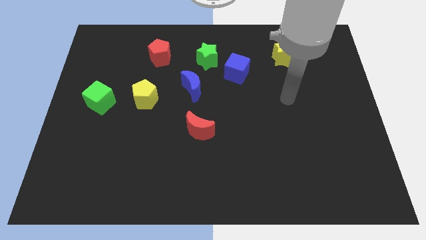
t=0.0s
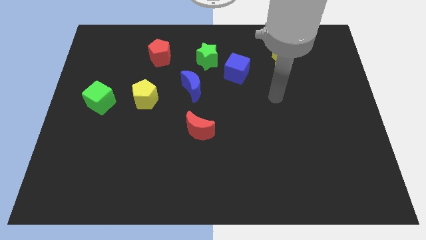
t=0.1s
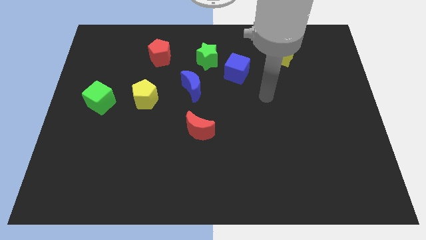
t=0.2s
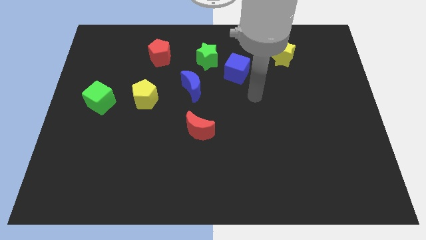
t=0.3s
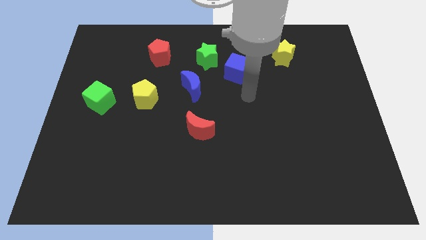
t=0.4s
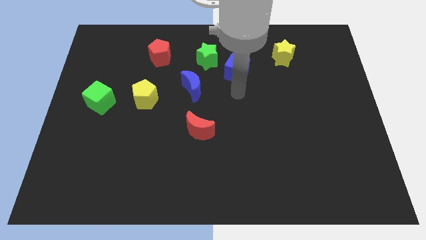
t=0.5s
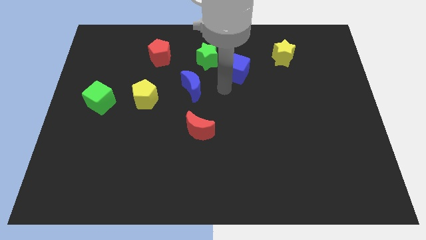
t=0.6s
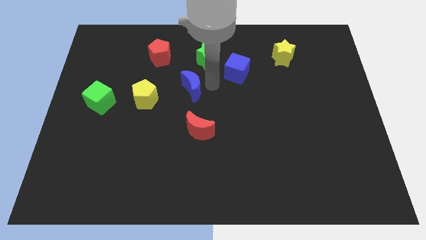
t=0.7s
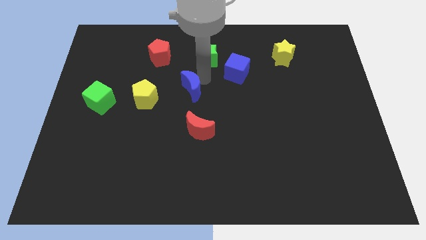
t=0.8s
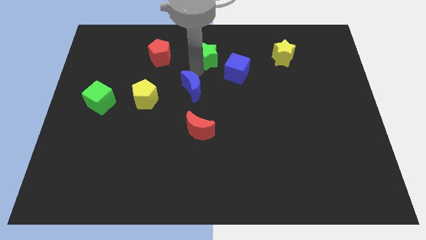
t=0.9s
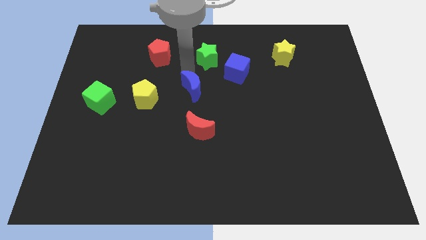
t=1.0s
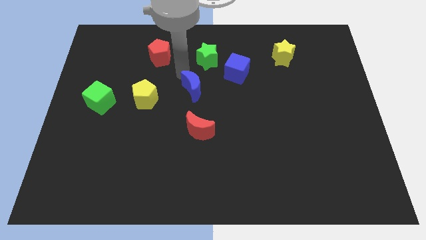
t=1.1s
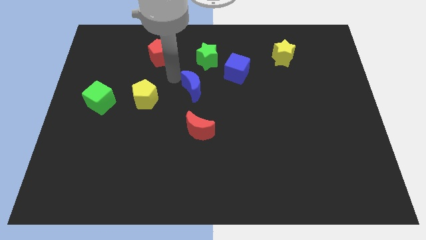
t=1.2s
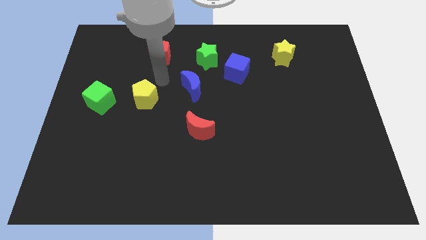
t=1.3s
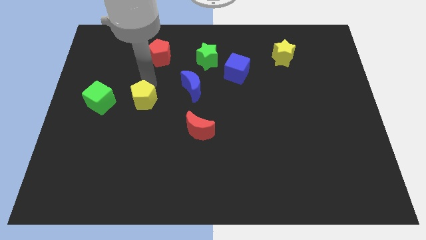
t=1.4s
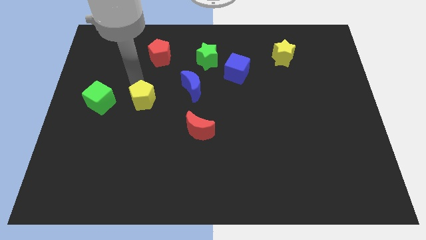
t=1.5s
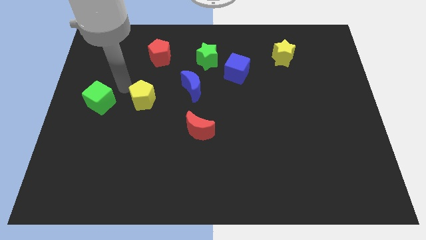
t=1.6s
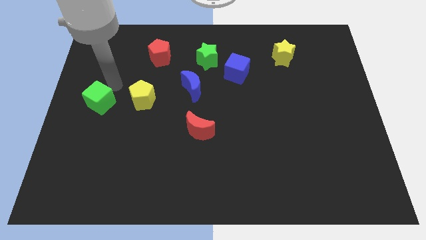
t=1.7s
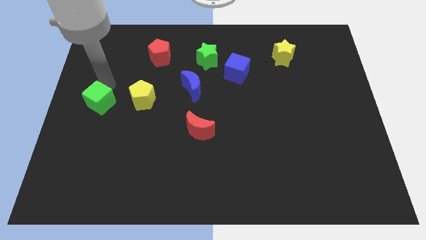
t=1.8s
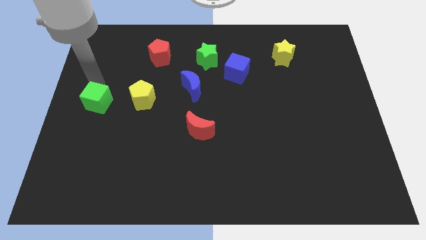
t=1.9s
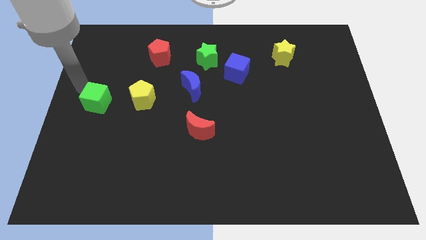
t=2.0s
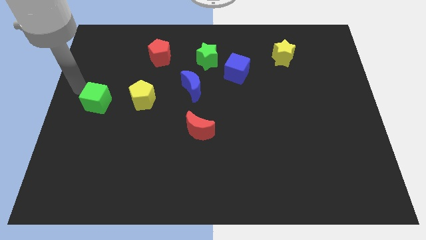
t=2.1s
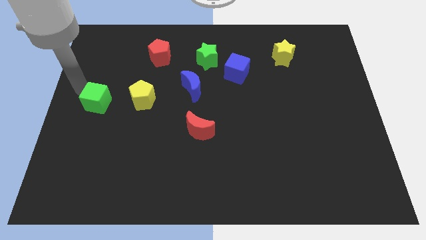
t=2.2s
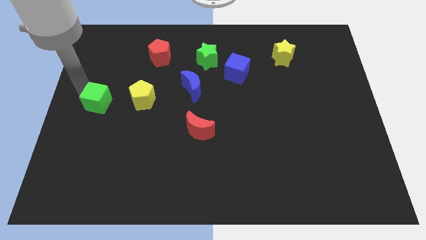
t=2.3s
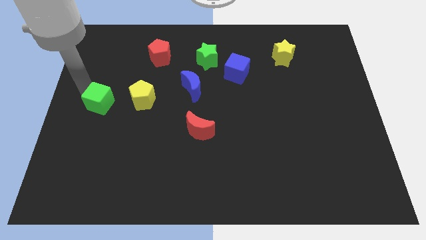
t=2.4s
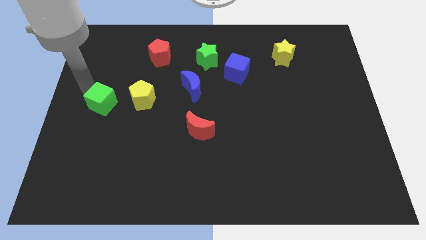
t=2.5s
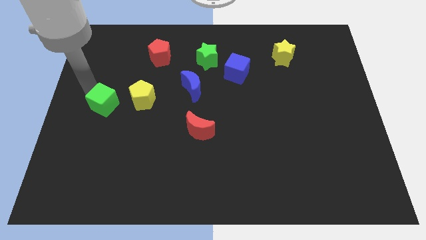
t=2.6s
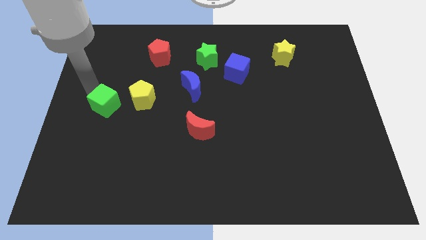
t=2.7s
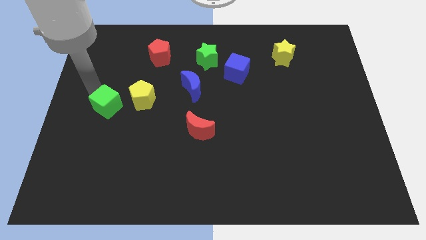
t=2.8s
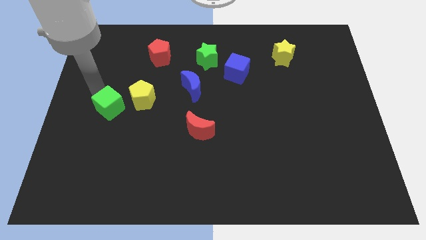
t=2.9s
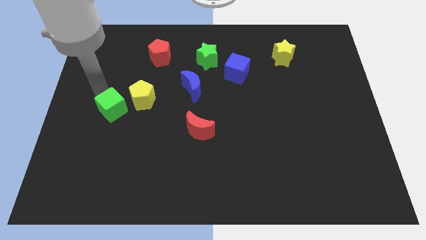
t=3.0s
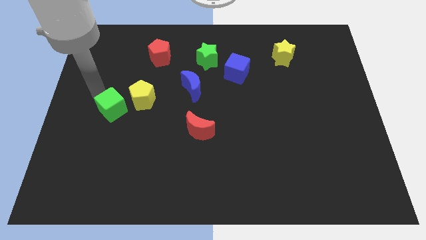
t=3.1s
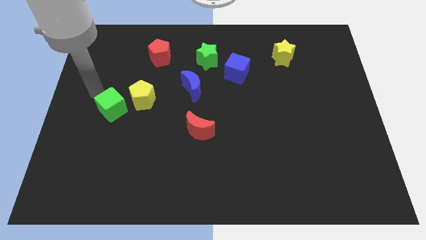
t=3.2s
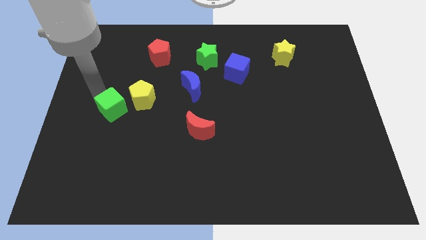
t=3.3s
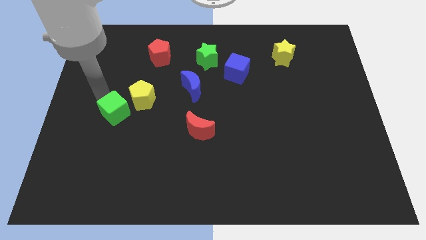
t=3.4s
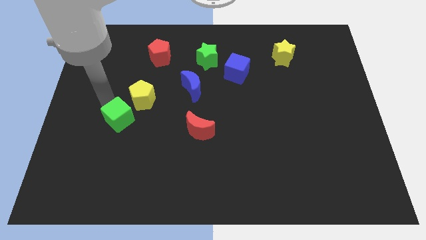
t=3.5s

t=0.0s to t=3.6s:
slightly slide the green cube down and to the right diagonally

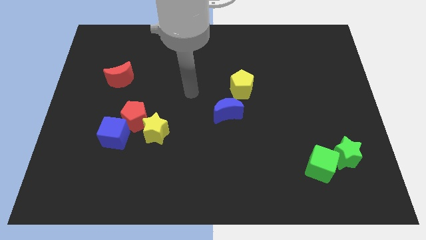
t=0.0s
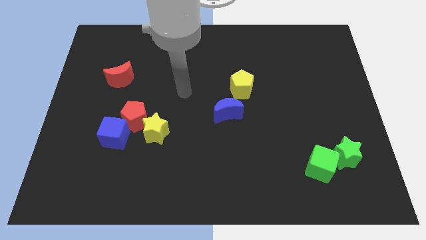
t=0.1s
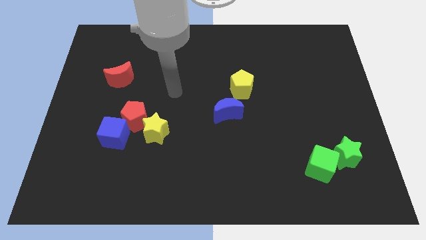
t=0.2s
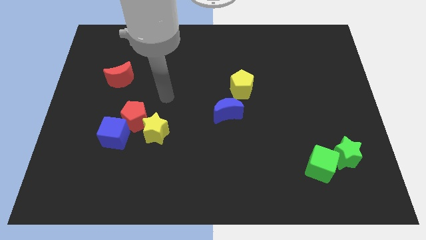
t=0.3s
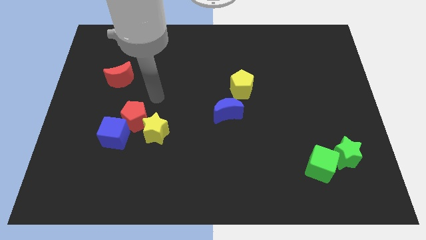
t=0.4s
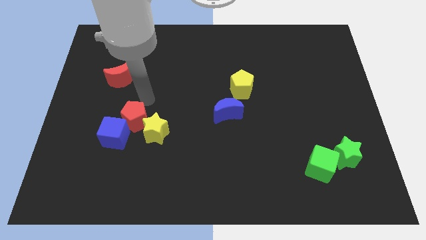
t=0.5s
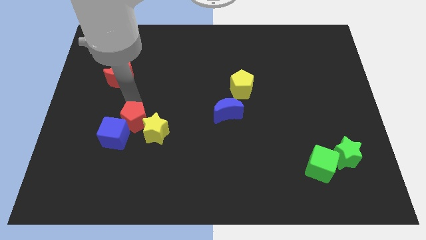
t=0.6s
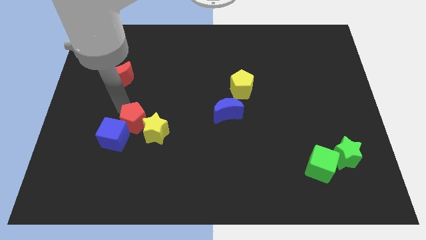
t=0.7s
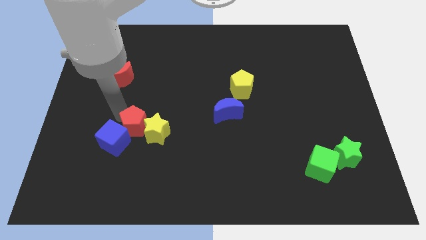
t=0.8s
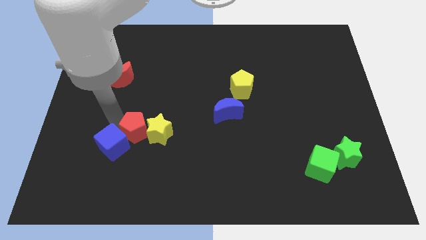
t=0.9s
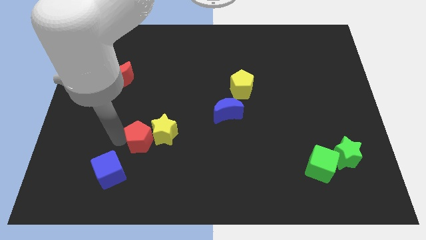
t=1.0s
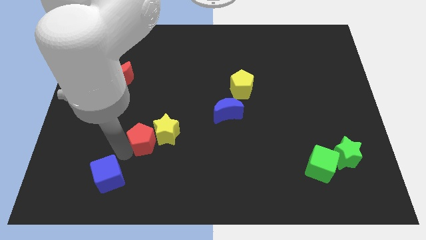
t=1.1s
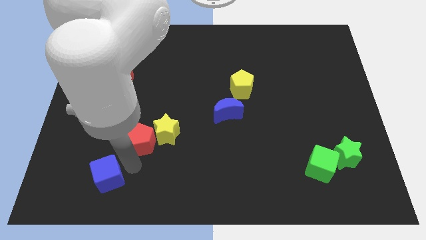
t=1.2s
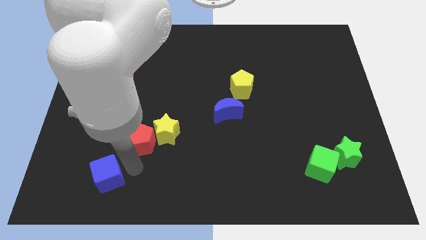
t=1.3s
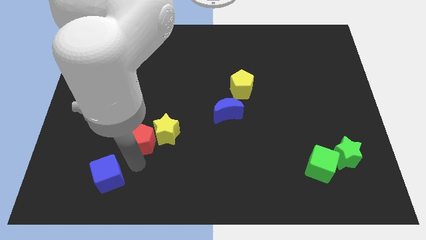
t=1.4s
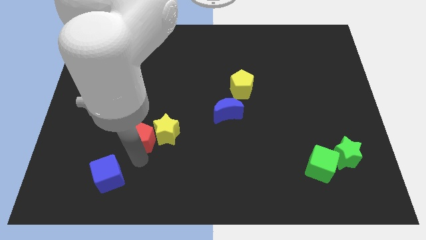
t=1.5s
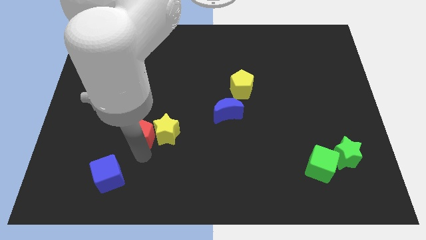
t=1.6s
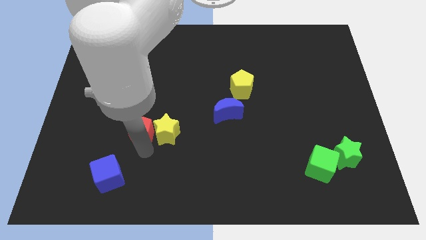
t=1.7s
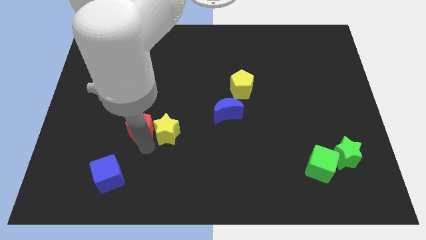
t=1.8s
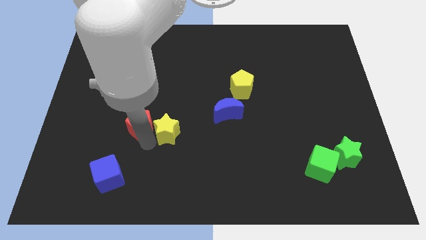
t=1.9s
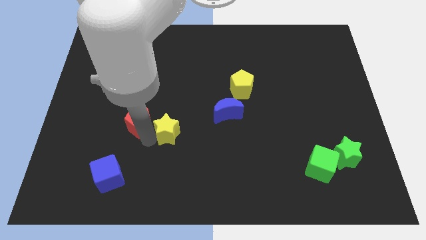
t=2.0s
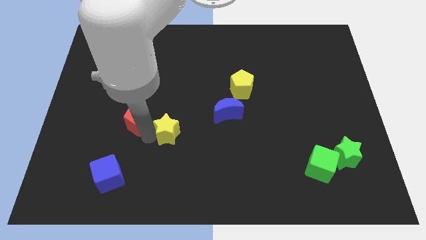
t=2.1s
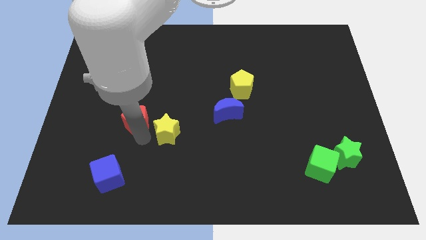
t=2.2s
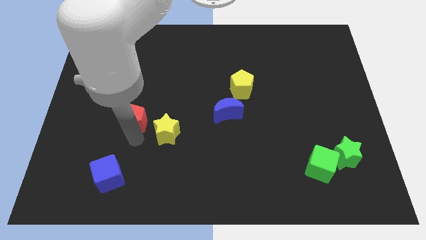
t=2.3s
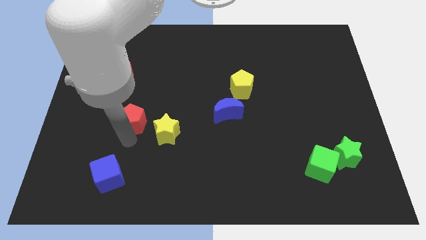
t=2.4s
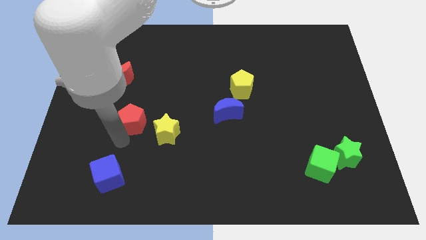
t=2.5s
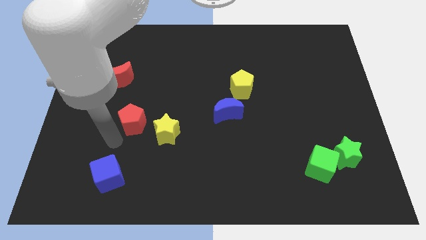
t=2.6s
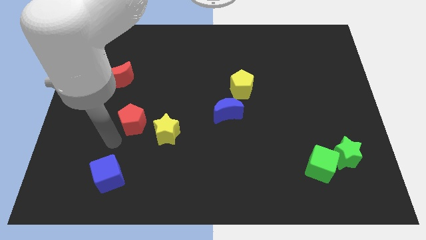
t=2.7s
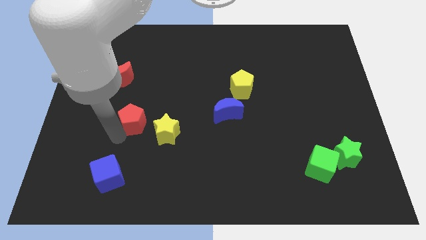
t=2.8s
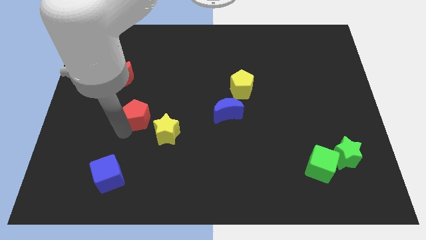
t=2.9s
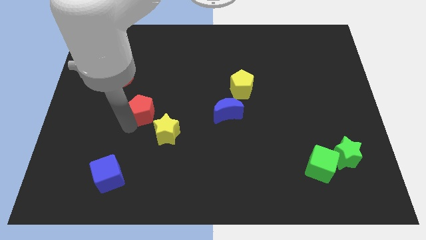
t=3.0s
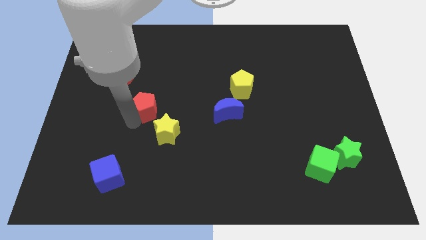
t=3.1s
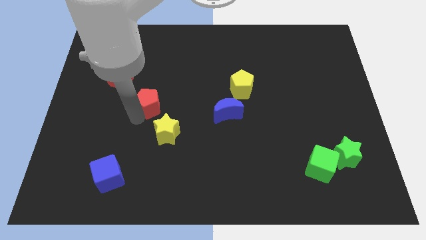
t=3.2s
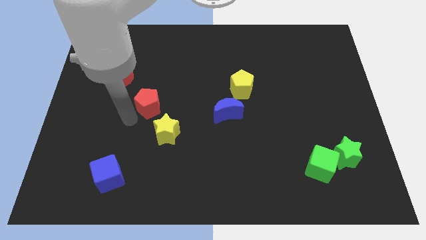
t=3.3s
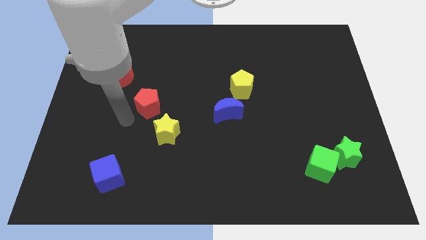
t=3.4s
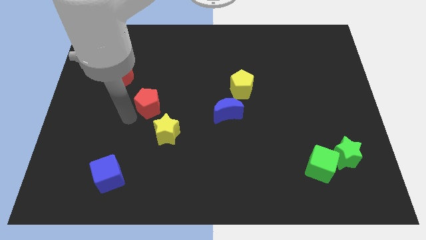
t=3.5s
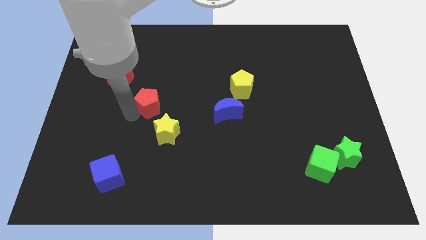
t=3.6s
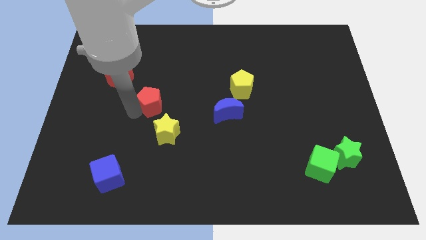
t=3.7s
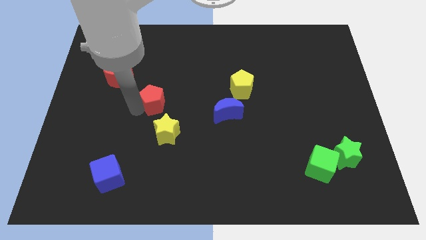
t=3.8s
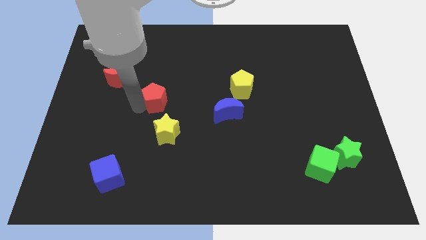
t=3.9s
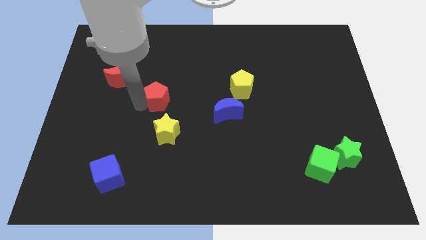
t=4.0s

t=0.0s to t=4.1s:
slightly push the red pentagon upwards and to the right diagonally

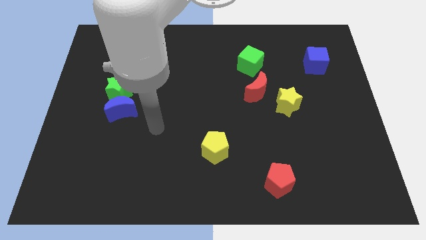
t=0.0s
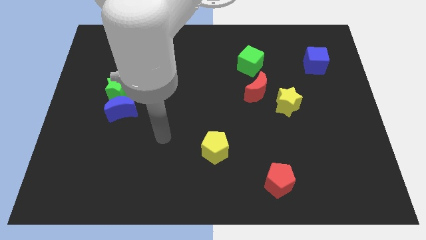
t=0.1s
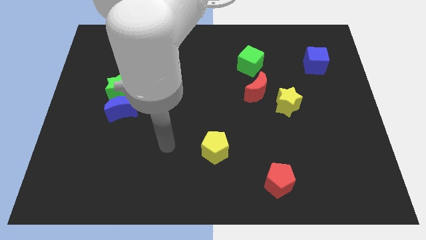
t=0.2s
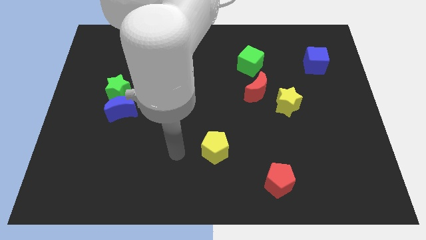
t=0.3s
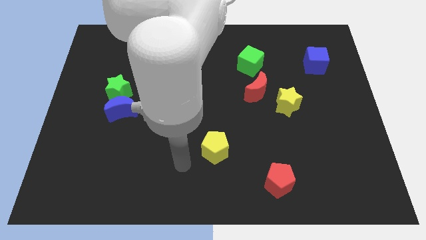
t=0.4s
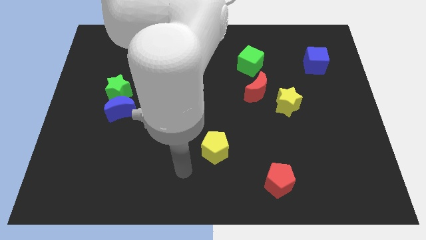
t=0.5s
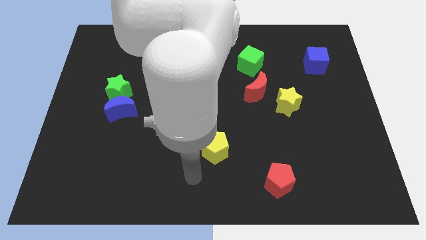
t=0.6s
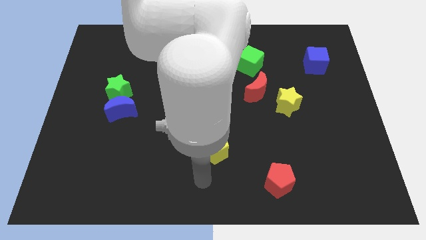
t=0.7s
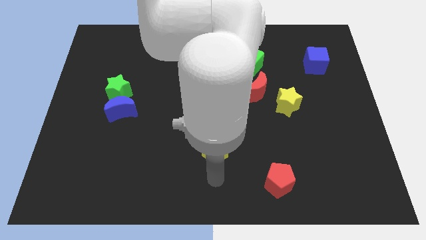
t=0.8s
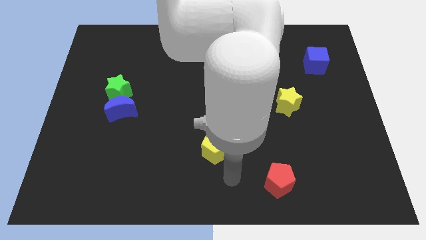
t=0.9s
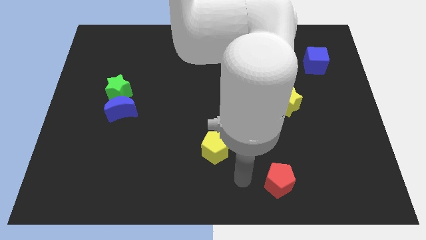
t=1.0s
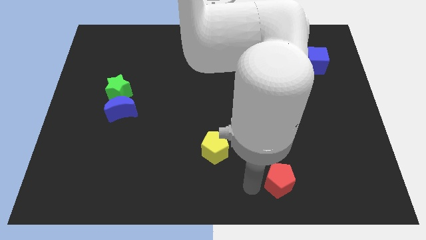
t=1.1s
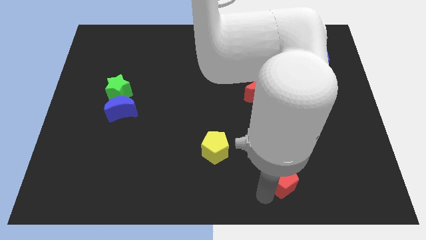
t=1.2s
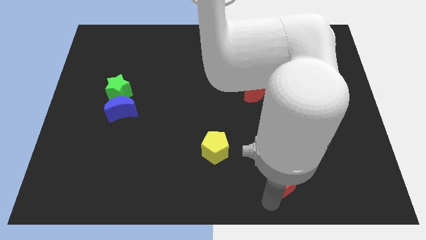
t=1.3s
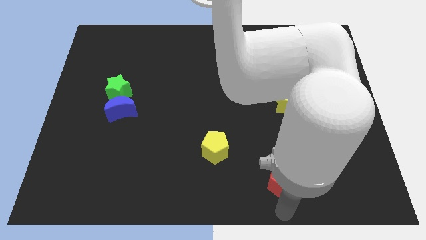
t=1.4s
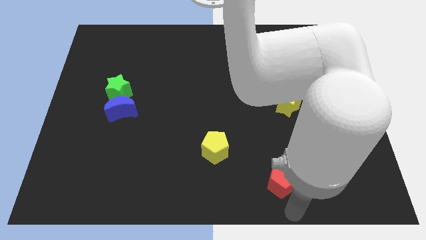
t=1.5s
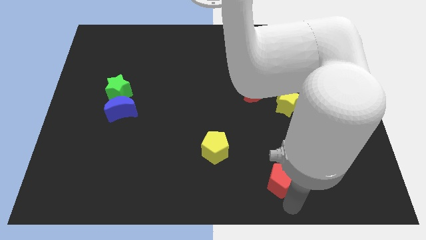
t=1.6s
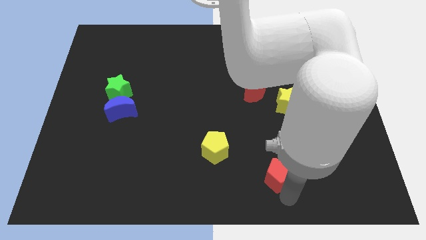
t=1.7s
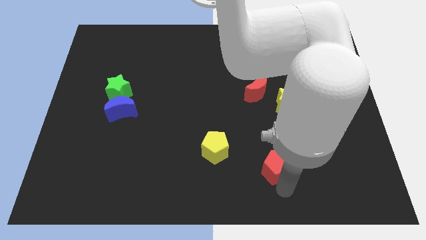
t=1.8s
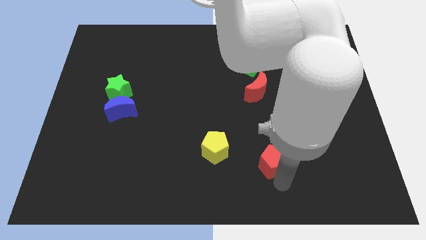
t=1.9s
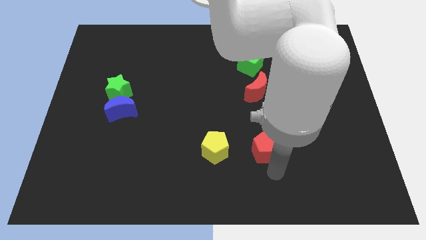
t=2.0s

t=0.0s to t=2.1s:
push the red pentagon slightly up
